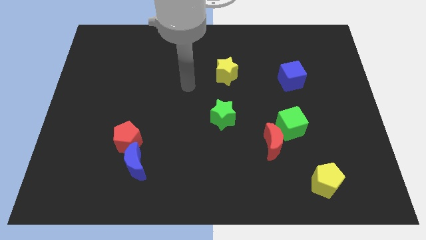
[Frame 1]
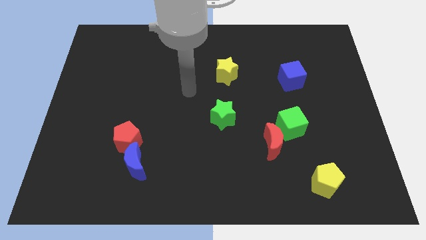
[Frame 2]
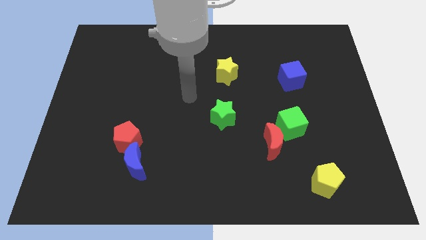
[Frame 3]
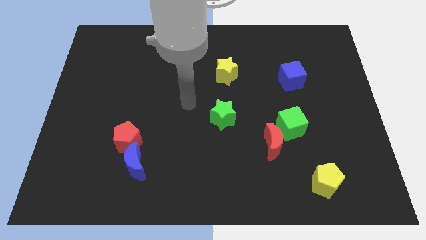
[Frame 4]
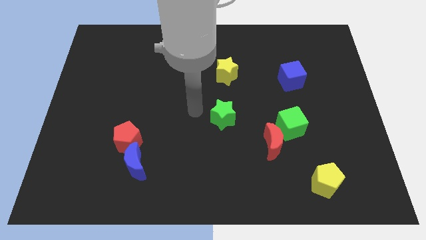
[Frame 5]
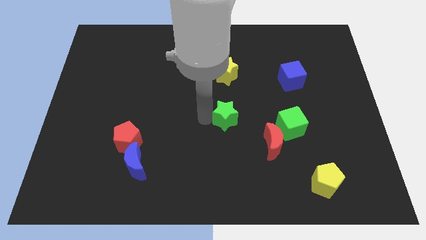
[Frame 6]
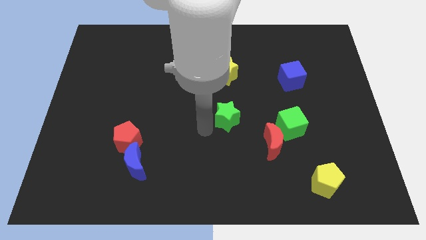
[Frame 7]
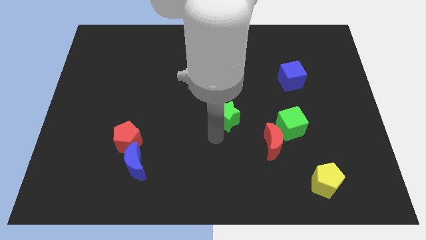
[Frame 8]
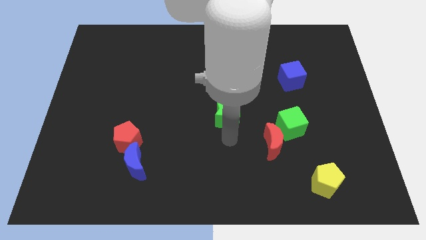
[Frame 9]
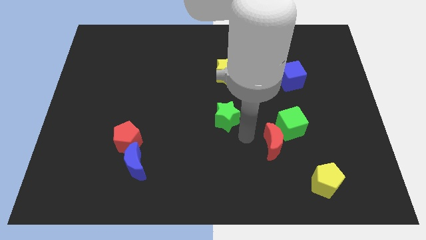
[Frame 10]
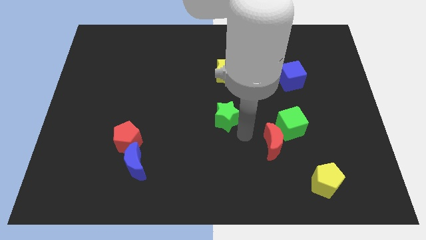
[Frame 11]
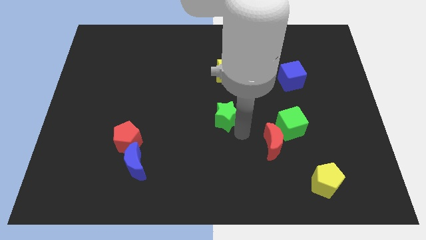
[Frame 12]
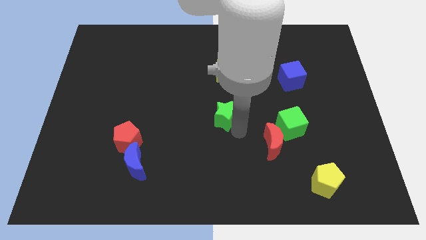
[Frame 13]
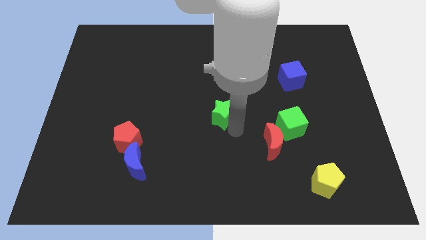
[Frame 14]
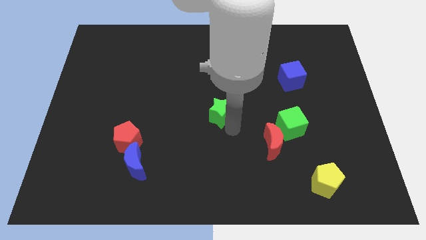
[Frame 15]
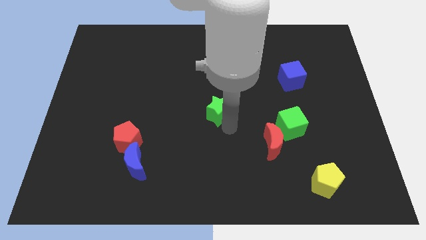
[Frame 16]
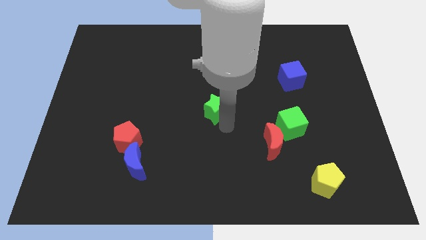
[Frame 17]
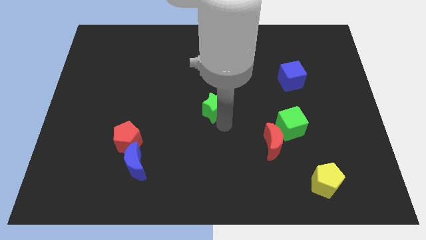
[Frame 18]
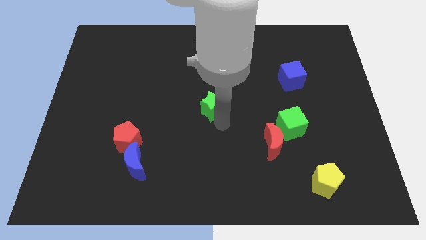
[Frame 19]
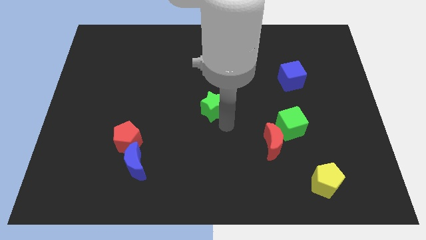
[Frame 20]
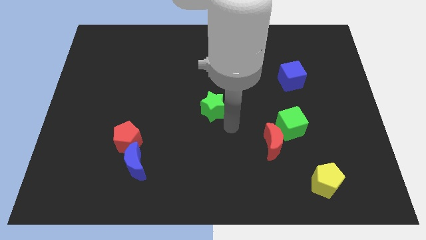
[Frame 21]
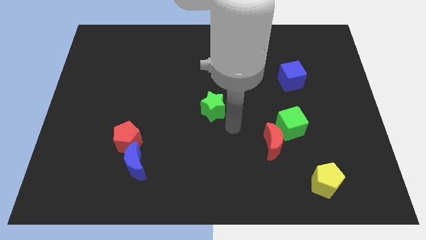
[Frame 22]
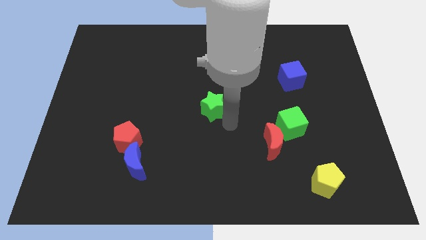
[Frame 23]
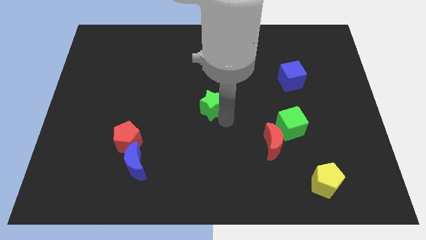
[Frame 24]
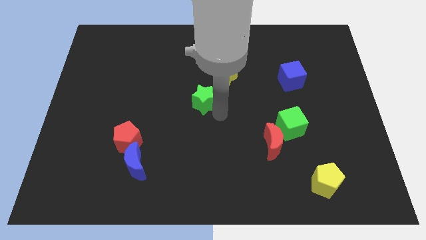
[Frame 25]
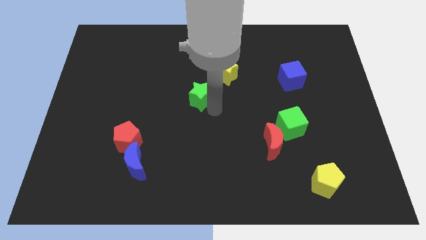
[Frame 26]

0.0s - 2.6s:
push the green star up and to the left diagonally slightly

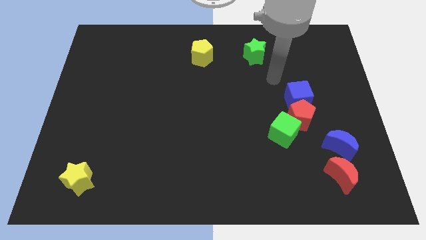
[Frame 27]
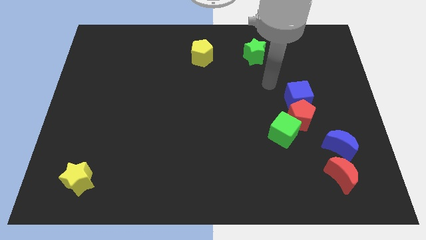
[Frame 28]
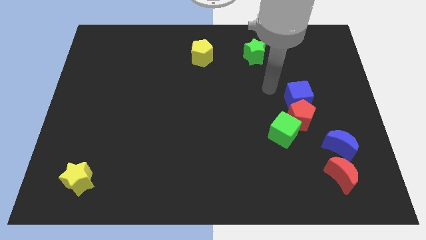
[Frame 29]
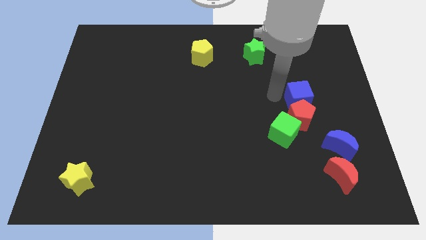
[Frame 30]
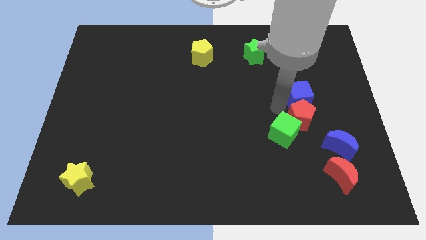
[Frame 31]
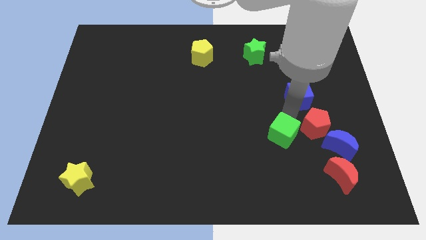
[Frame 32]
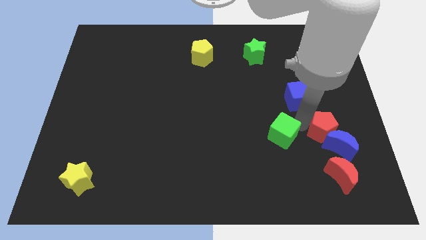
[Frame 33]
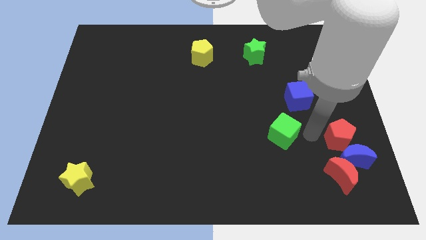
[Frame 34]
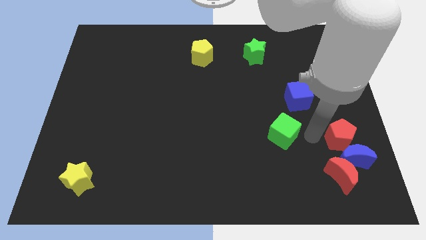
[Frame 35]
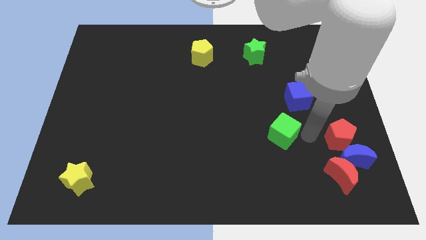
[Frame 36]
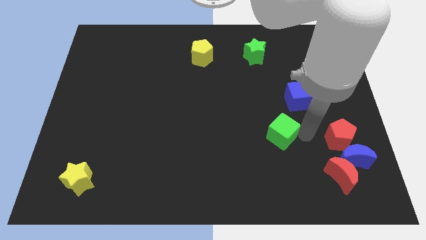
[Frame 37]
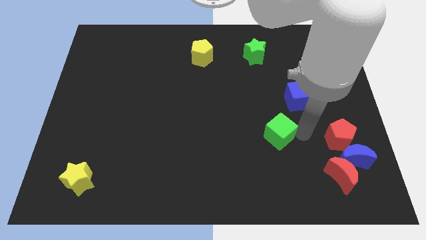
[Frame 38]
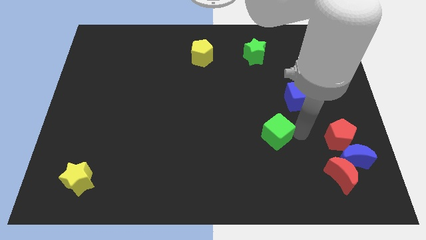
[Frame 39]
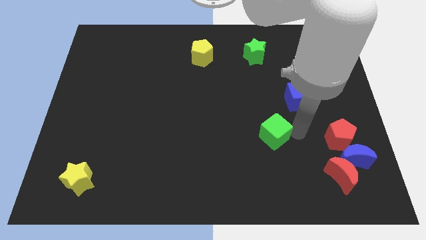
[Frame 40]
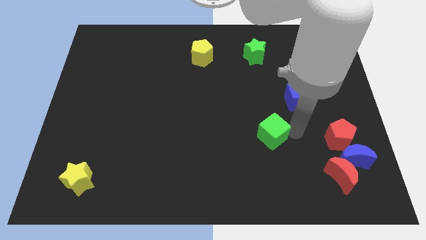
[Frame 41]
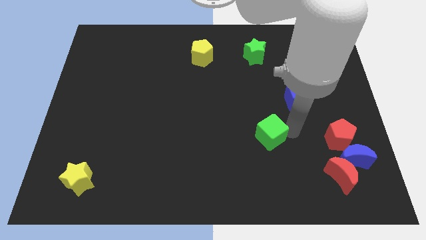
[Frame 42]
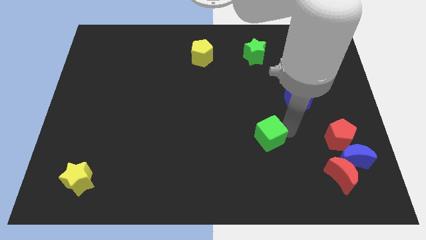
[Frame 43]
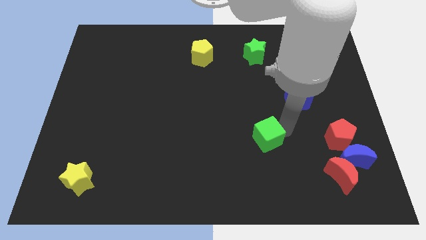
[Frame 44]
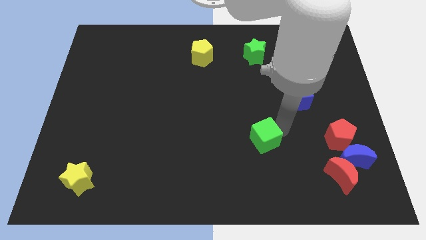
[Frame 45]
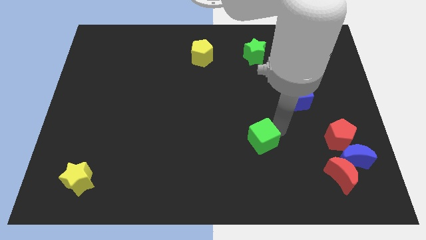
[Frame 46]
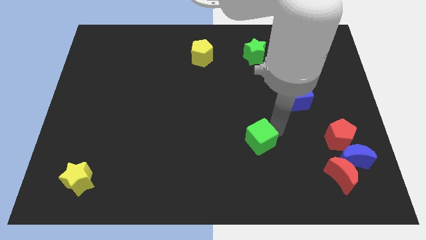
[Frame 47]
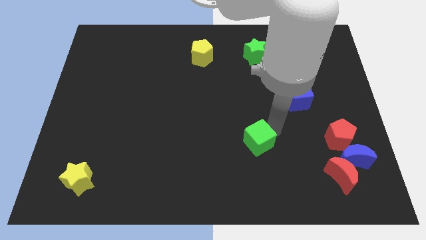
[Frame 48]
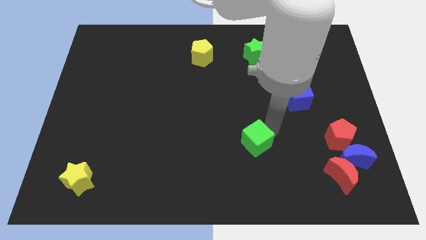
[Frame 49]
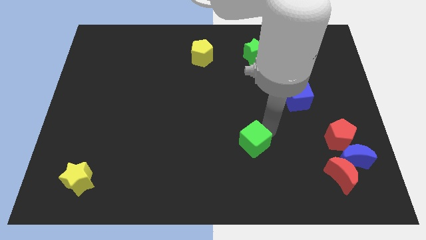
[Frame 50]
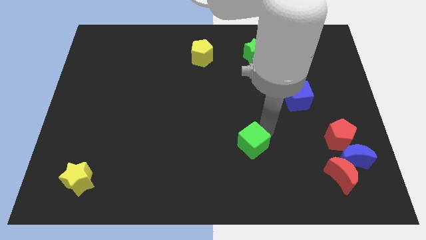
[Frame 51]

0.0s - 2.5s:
move the green cube to the left a little bit

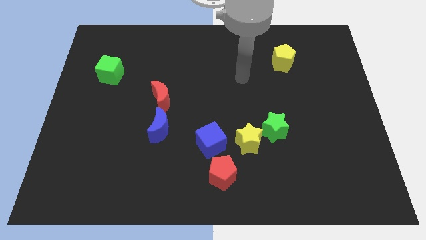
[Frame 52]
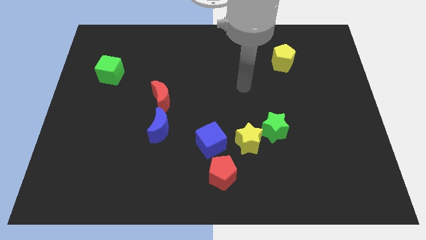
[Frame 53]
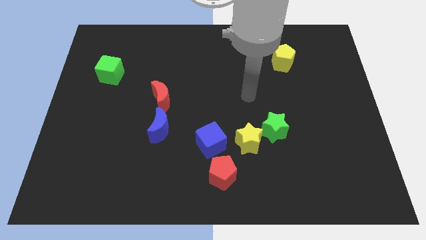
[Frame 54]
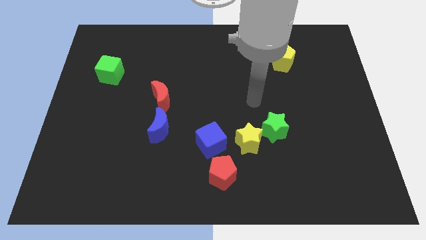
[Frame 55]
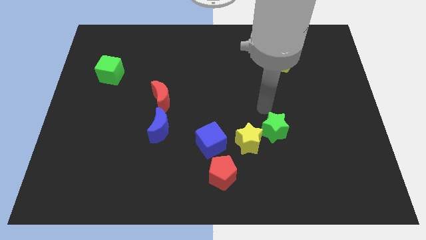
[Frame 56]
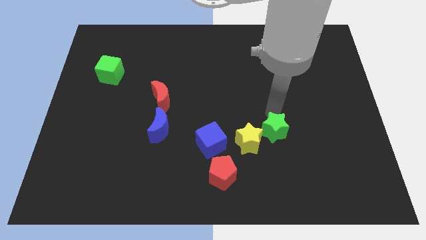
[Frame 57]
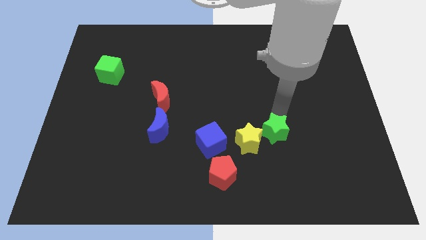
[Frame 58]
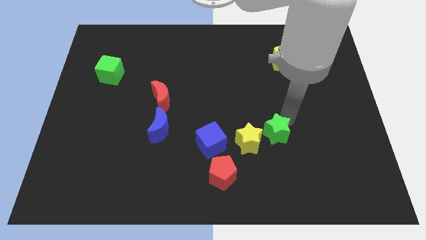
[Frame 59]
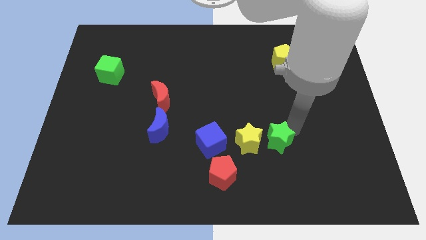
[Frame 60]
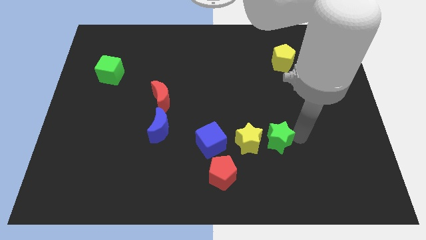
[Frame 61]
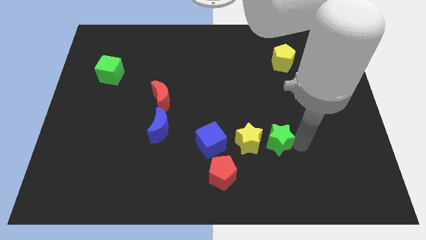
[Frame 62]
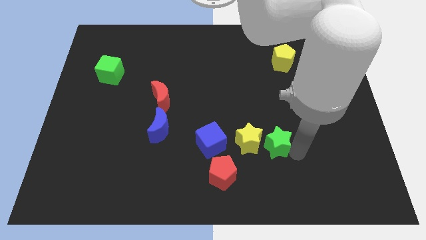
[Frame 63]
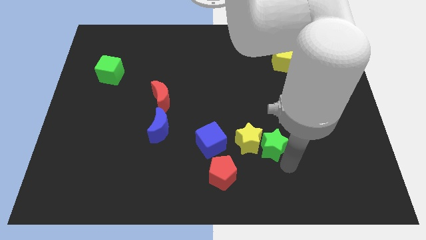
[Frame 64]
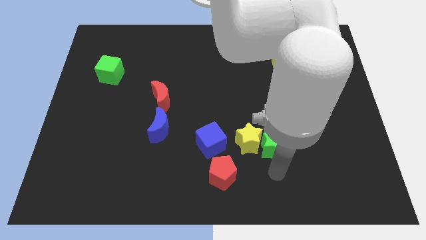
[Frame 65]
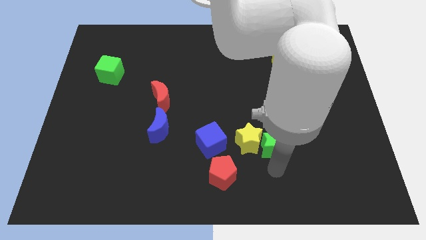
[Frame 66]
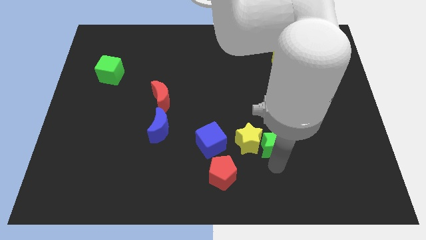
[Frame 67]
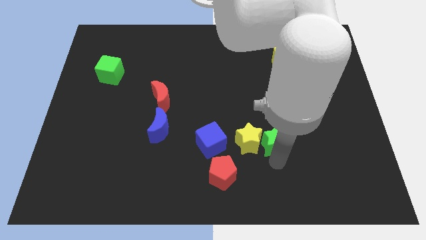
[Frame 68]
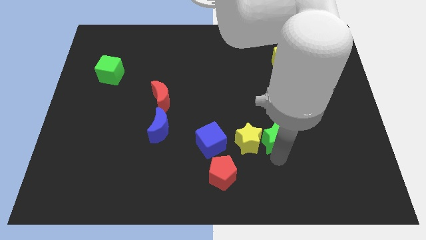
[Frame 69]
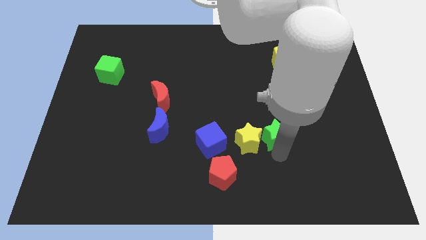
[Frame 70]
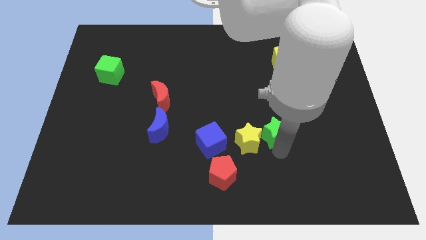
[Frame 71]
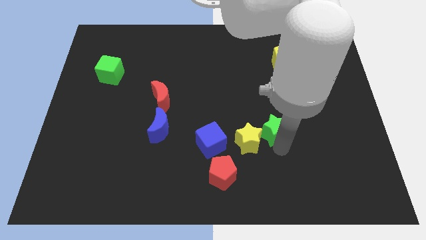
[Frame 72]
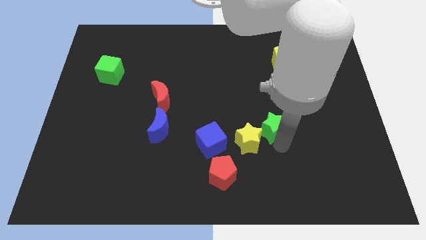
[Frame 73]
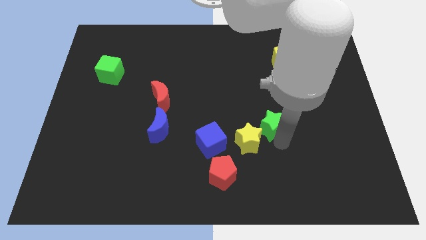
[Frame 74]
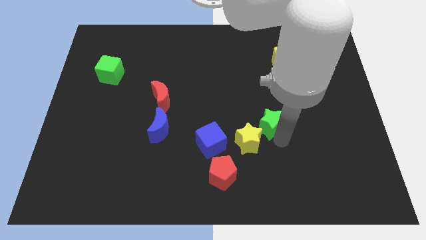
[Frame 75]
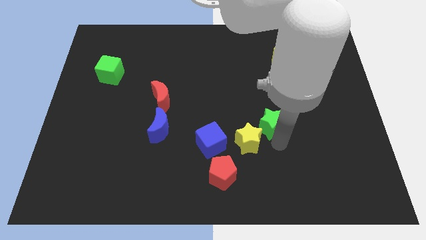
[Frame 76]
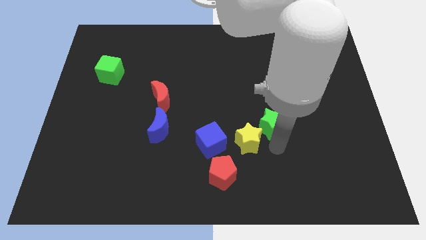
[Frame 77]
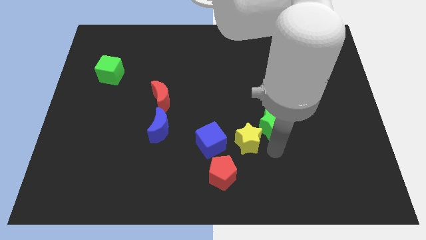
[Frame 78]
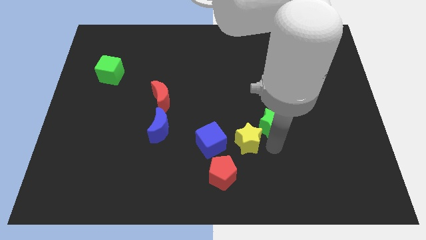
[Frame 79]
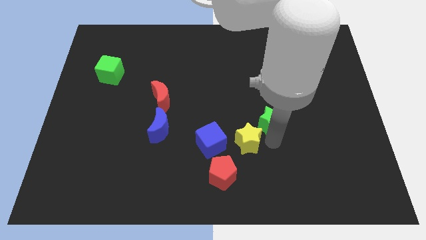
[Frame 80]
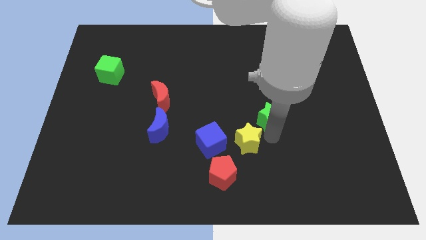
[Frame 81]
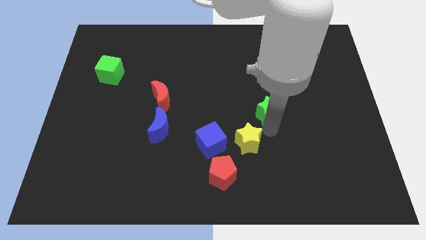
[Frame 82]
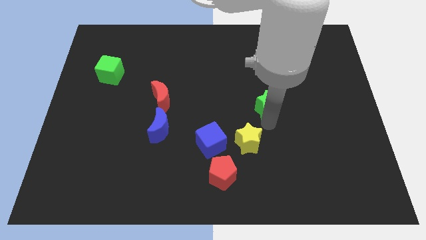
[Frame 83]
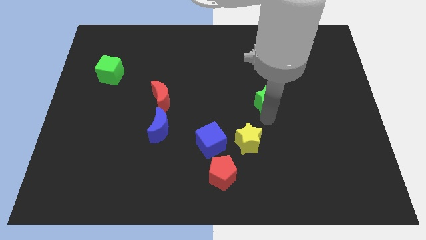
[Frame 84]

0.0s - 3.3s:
slightly slide the green star upwards
